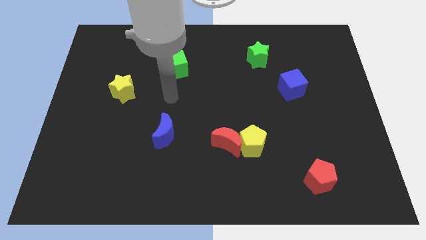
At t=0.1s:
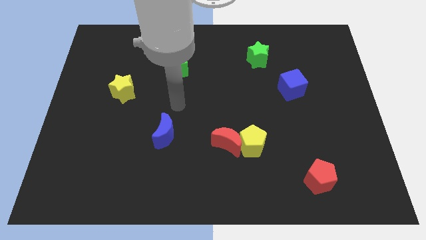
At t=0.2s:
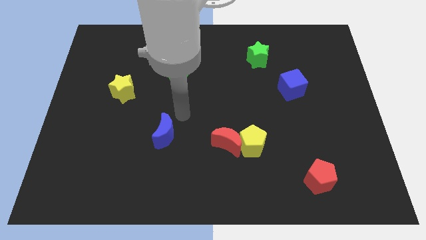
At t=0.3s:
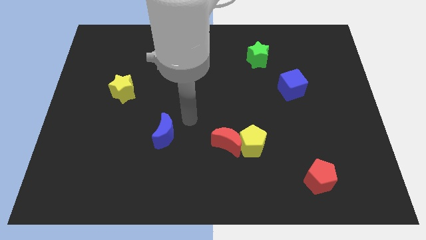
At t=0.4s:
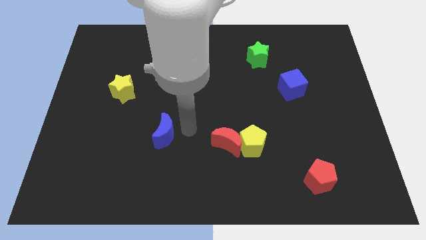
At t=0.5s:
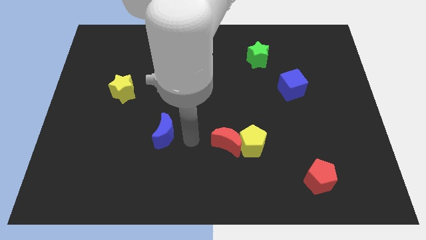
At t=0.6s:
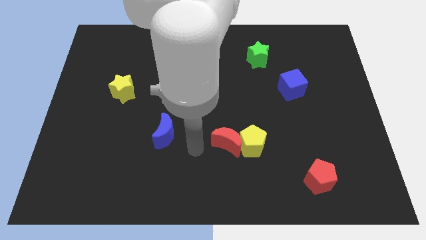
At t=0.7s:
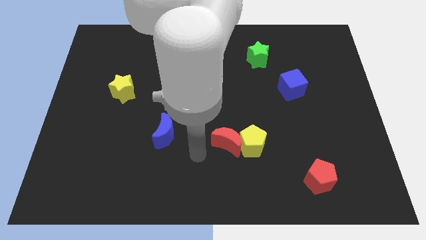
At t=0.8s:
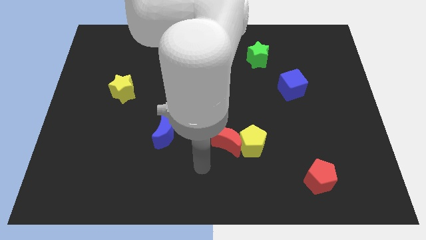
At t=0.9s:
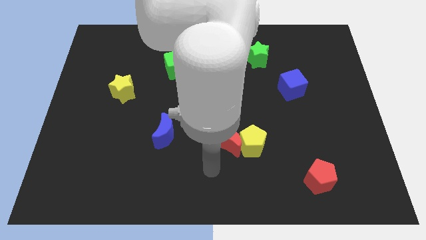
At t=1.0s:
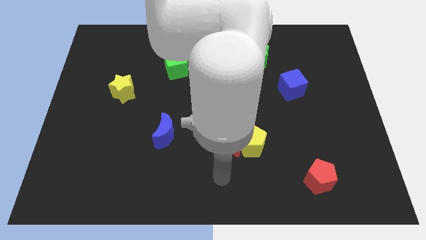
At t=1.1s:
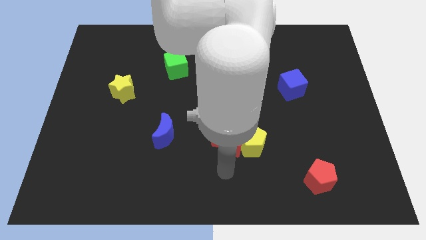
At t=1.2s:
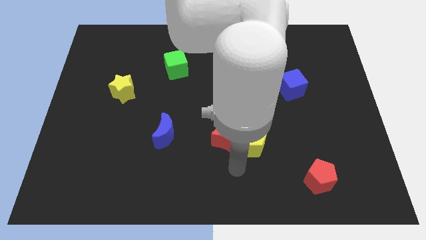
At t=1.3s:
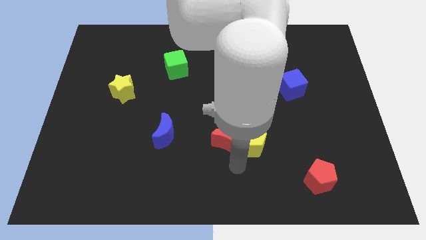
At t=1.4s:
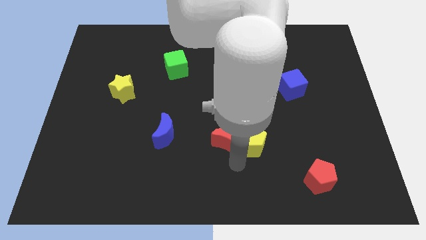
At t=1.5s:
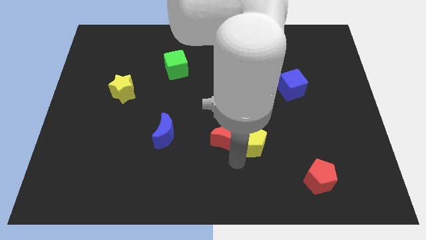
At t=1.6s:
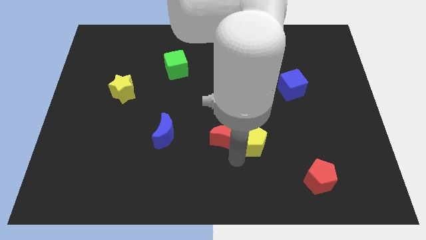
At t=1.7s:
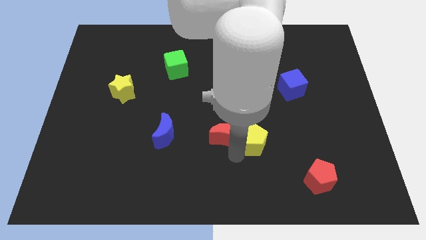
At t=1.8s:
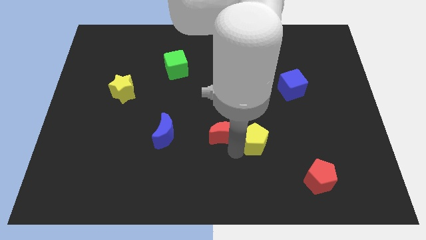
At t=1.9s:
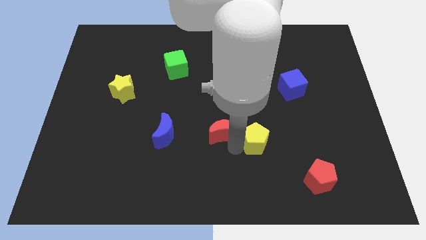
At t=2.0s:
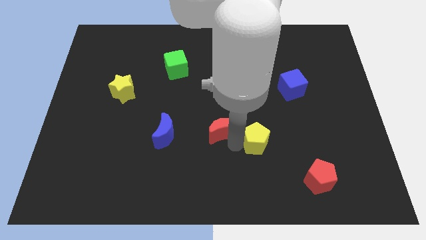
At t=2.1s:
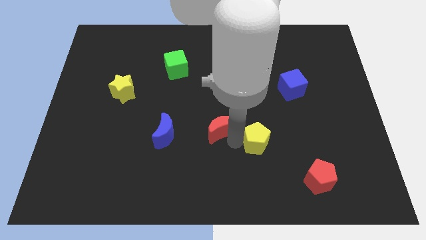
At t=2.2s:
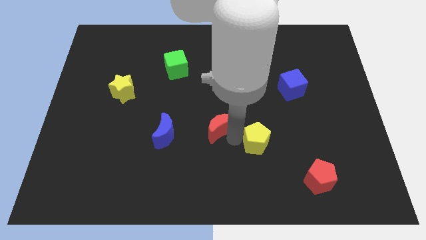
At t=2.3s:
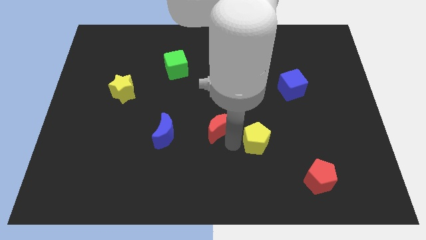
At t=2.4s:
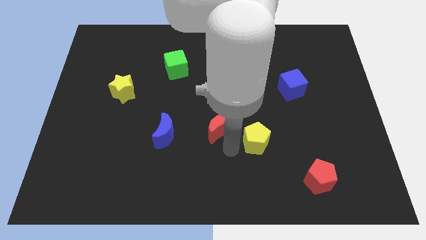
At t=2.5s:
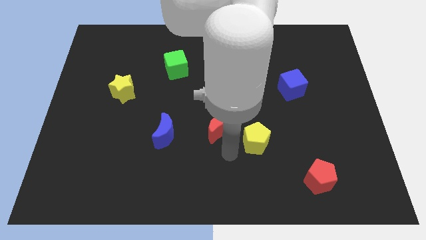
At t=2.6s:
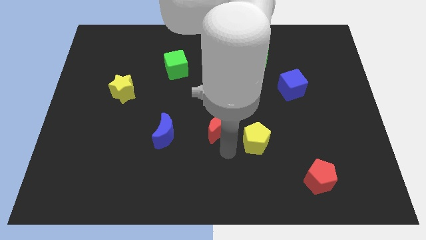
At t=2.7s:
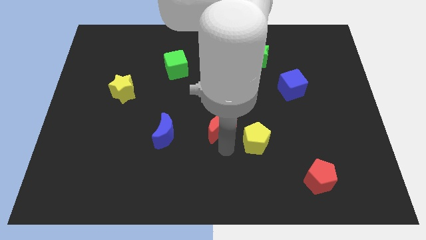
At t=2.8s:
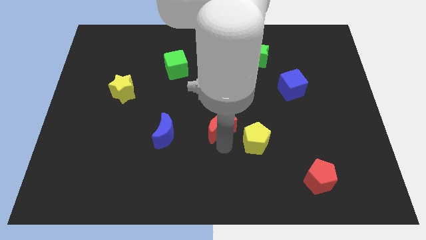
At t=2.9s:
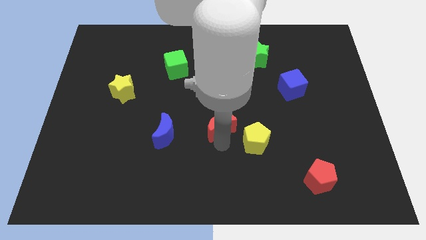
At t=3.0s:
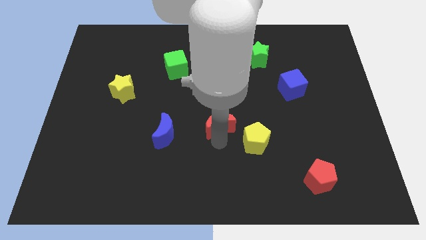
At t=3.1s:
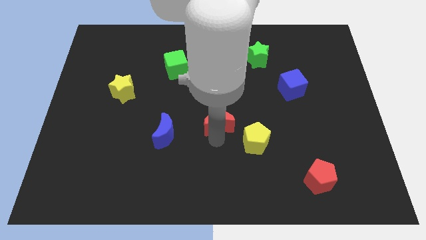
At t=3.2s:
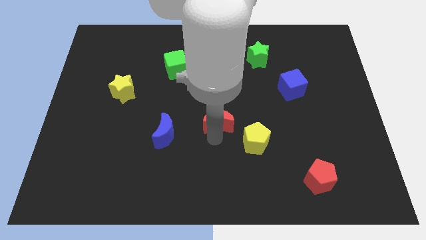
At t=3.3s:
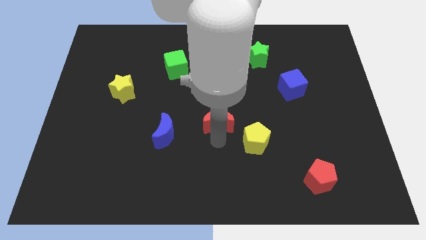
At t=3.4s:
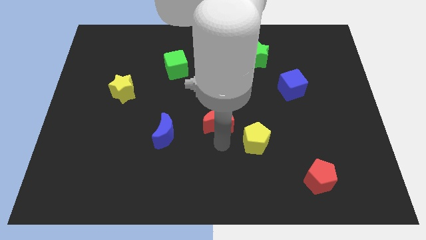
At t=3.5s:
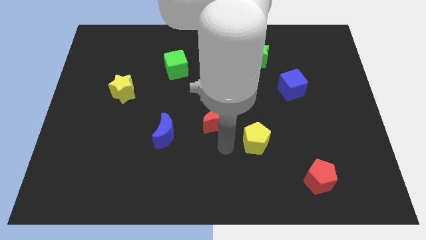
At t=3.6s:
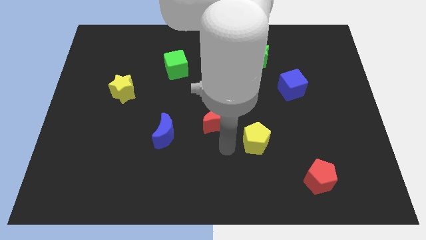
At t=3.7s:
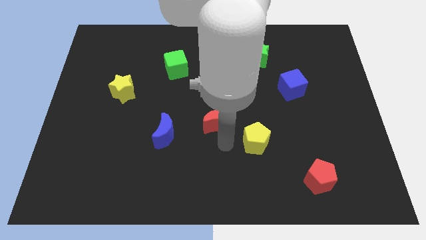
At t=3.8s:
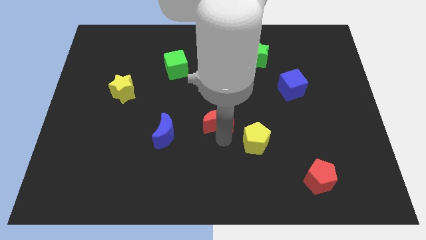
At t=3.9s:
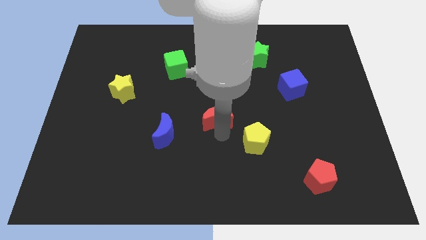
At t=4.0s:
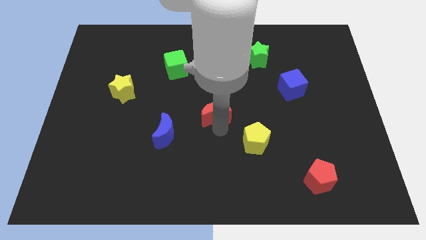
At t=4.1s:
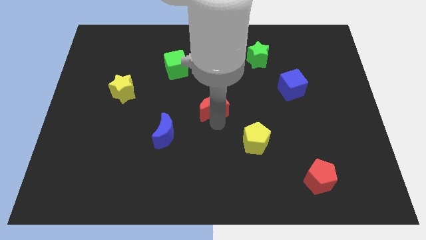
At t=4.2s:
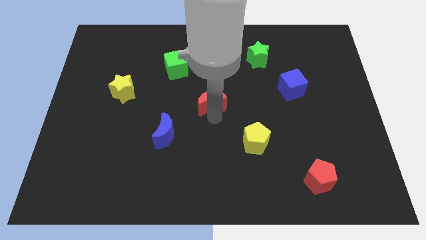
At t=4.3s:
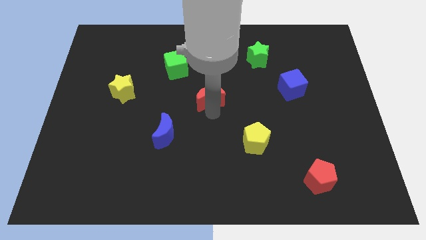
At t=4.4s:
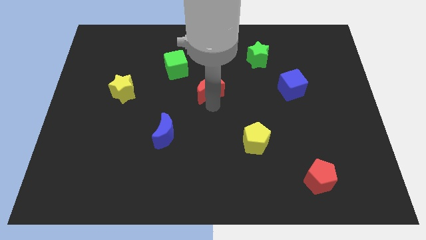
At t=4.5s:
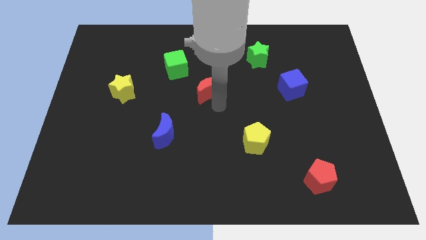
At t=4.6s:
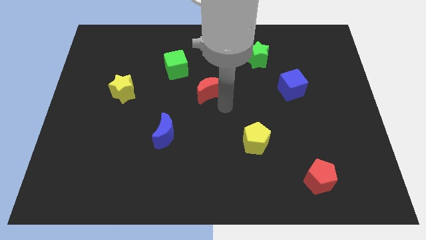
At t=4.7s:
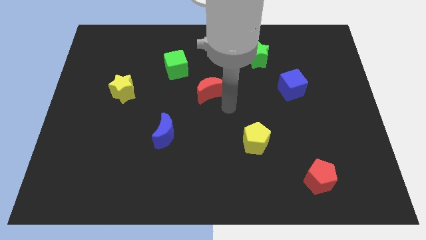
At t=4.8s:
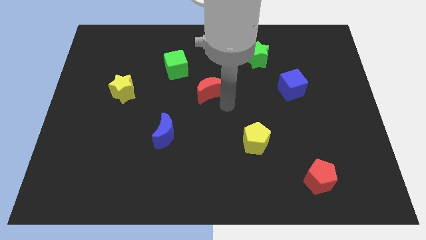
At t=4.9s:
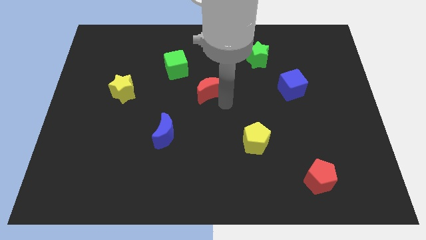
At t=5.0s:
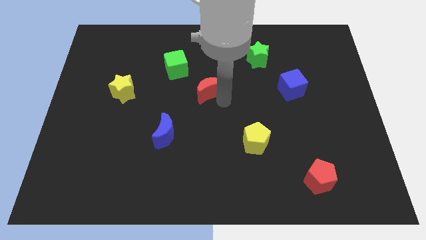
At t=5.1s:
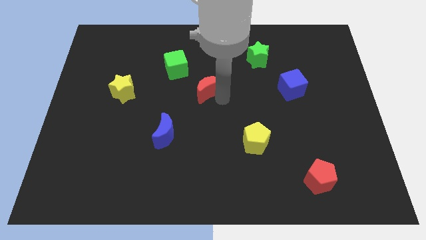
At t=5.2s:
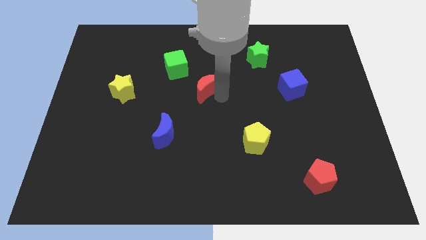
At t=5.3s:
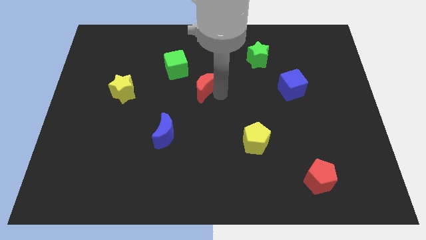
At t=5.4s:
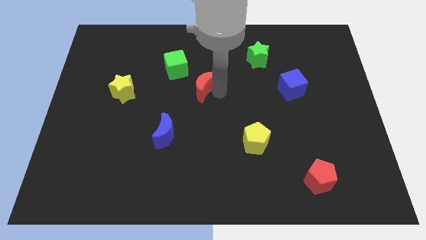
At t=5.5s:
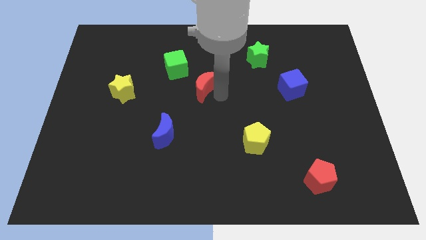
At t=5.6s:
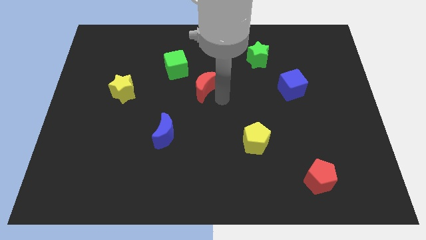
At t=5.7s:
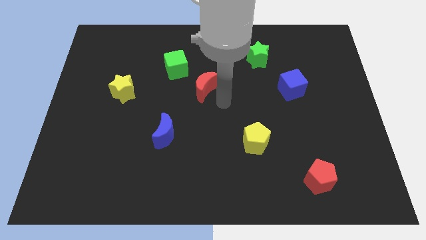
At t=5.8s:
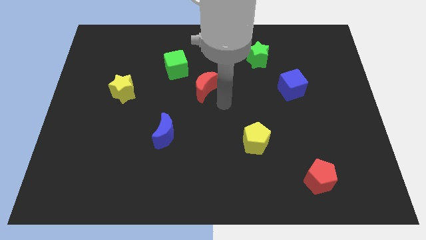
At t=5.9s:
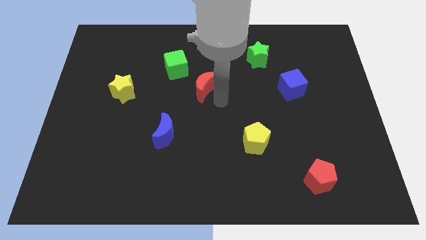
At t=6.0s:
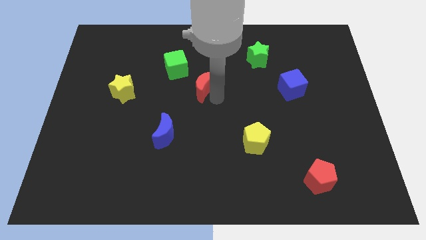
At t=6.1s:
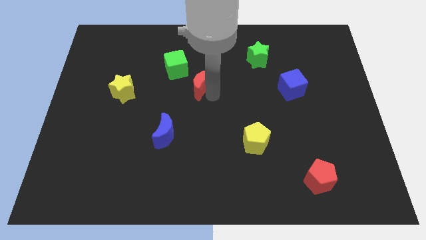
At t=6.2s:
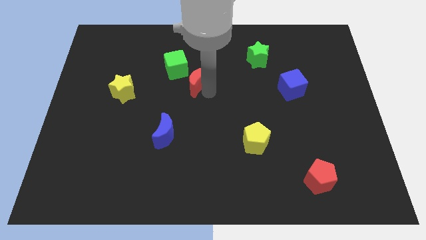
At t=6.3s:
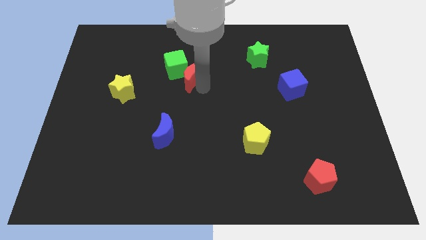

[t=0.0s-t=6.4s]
slide the red moon to the green cube
